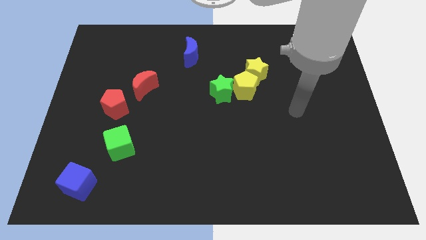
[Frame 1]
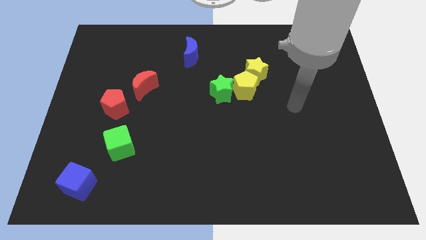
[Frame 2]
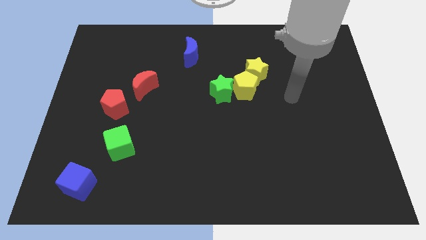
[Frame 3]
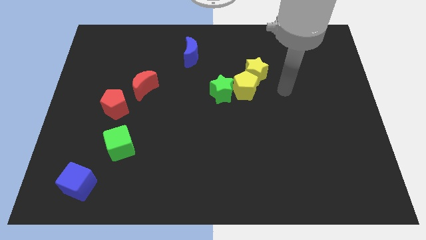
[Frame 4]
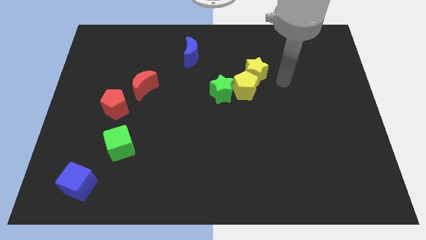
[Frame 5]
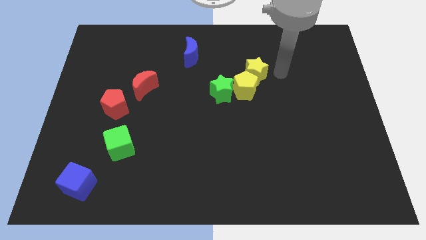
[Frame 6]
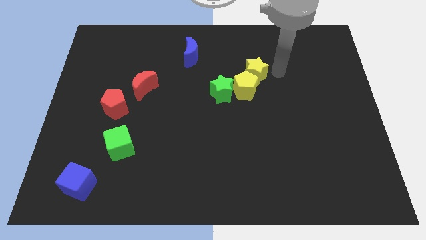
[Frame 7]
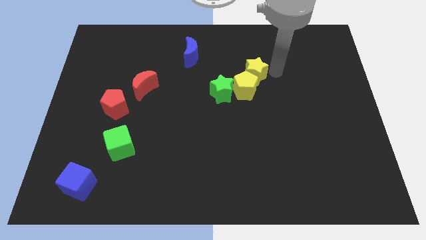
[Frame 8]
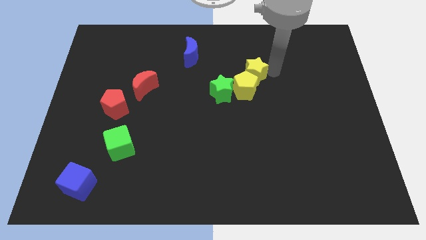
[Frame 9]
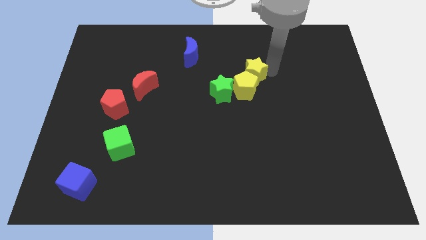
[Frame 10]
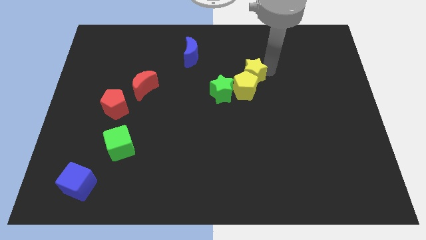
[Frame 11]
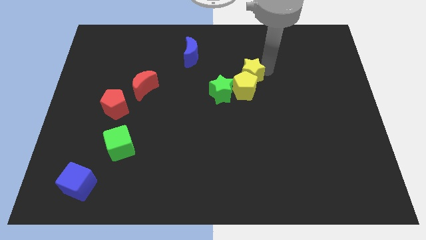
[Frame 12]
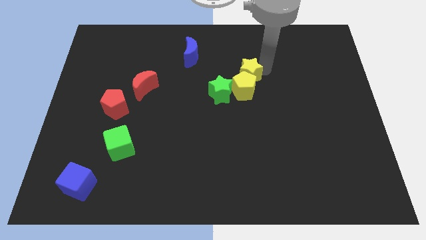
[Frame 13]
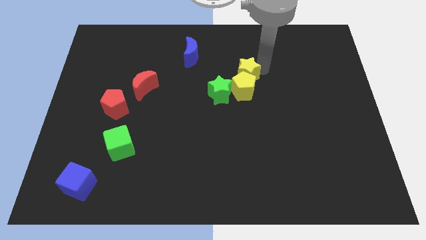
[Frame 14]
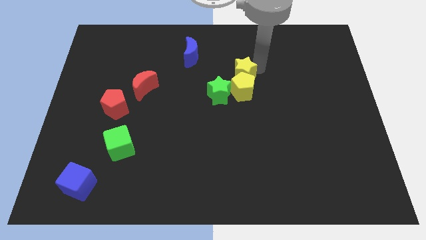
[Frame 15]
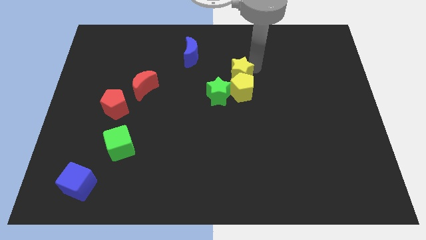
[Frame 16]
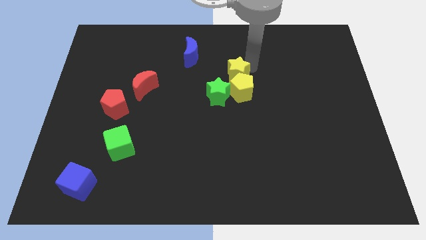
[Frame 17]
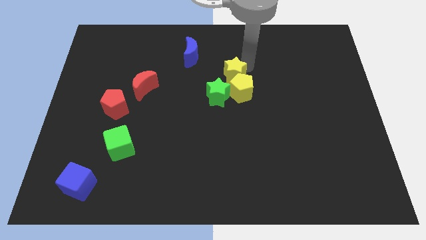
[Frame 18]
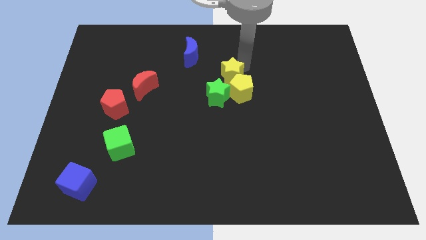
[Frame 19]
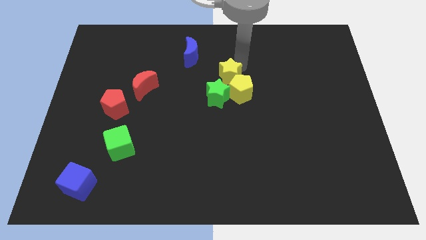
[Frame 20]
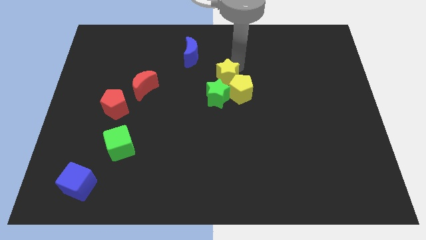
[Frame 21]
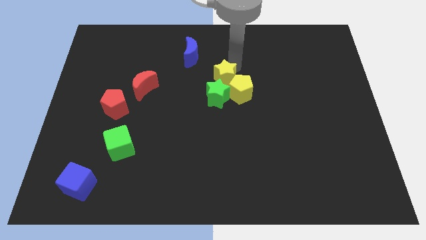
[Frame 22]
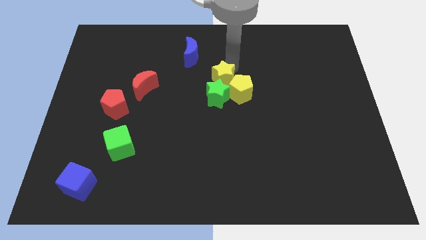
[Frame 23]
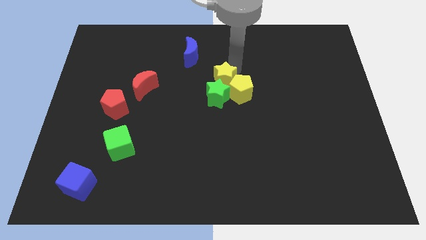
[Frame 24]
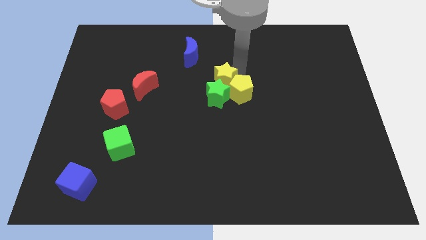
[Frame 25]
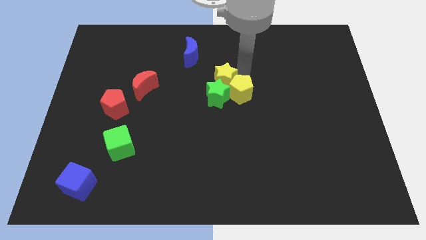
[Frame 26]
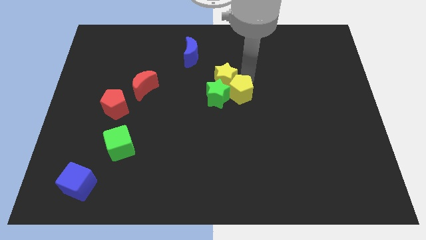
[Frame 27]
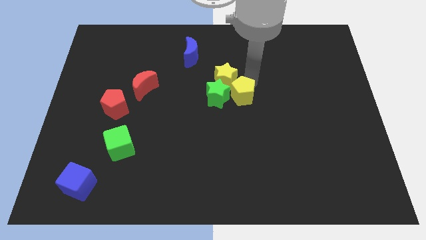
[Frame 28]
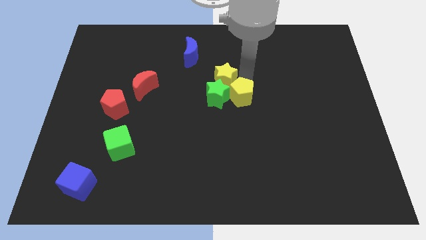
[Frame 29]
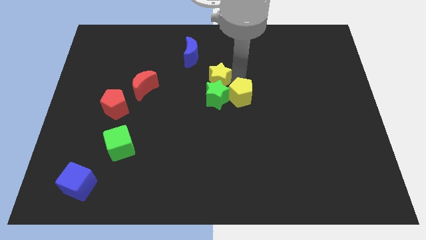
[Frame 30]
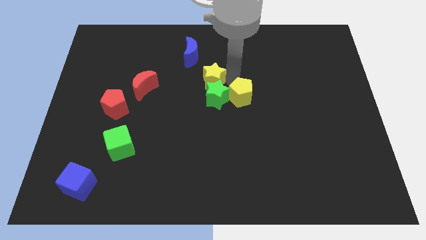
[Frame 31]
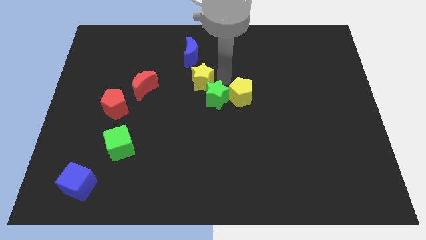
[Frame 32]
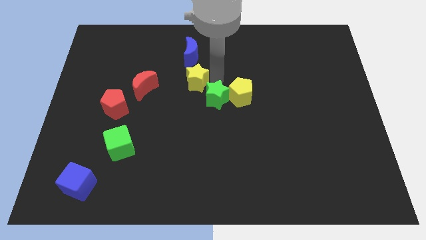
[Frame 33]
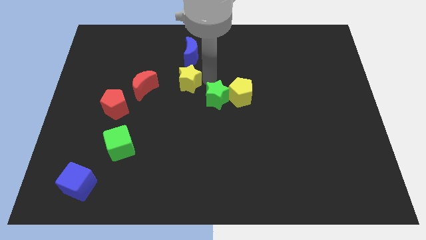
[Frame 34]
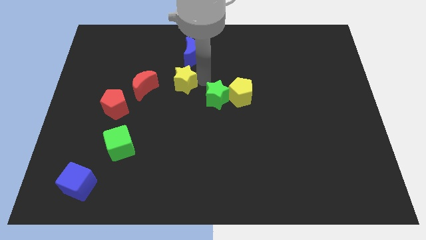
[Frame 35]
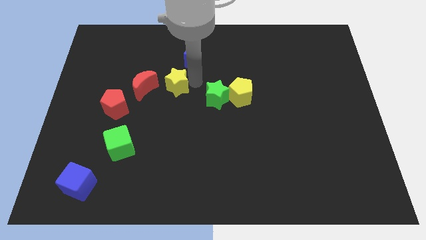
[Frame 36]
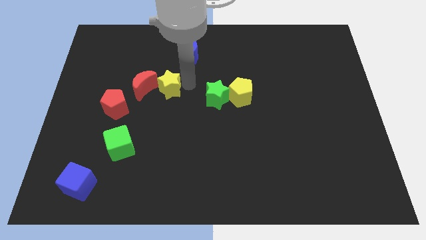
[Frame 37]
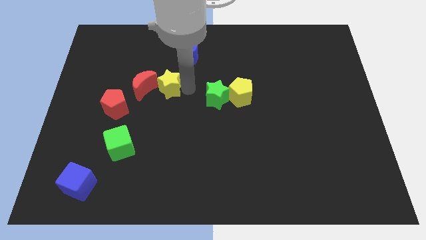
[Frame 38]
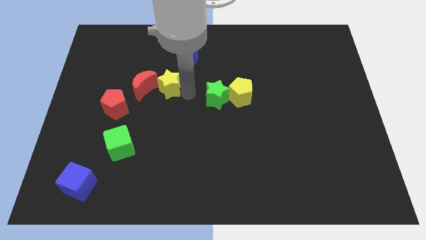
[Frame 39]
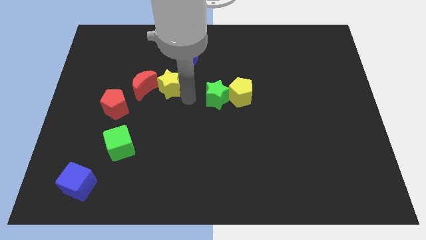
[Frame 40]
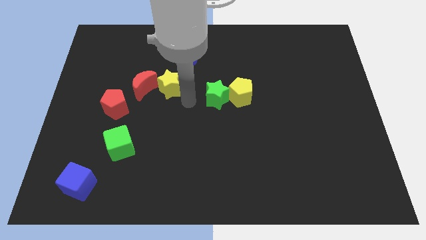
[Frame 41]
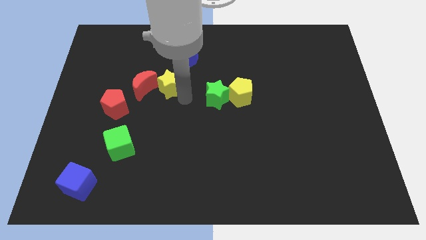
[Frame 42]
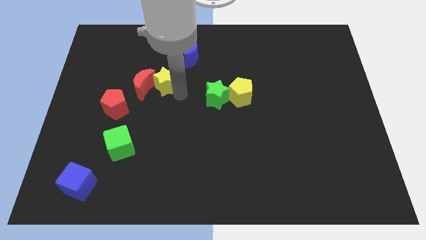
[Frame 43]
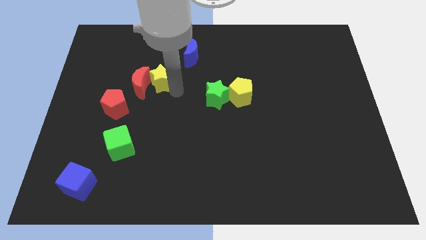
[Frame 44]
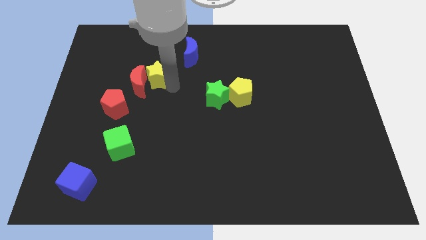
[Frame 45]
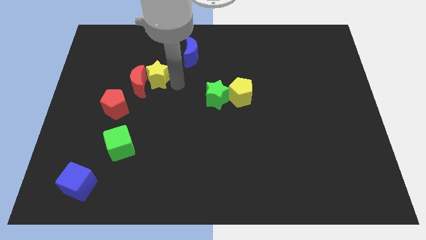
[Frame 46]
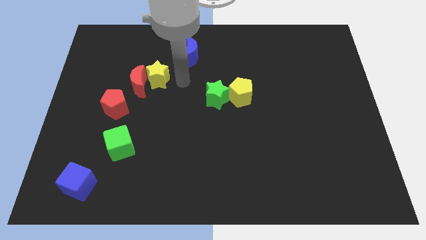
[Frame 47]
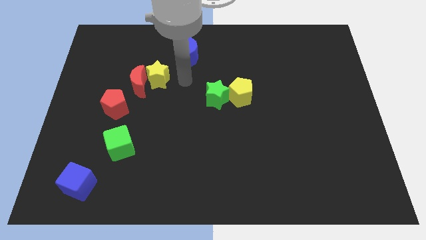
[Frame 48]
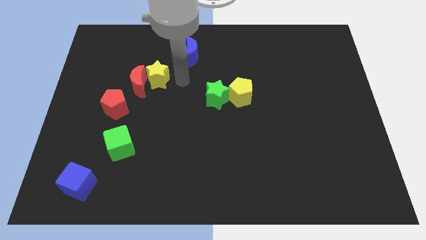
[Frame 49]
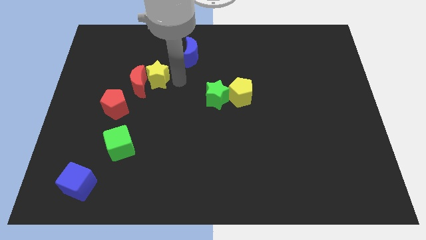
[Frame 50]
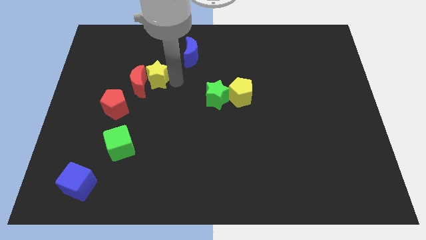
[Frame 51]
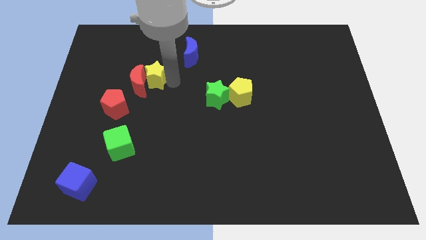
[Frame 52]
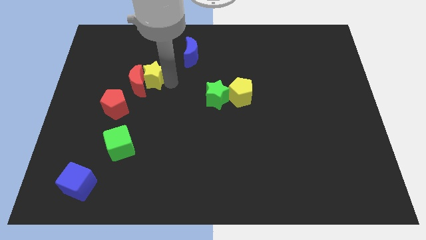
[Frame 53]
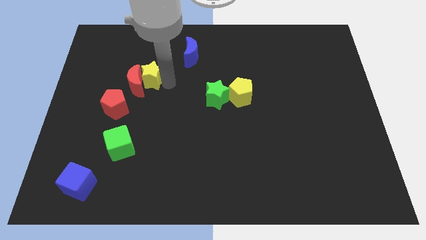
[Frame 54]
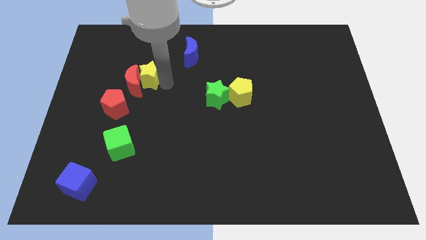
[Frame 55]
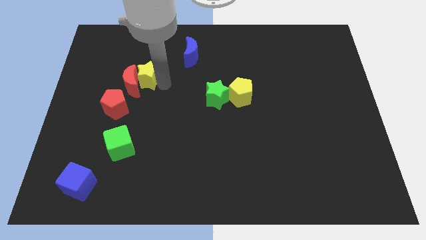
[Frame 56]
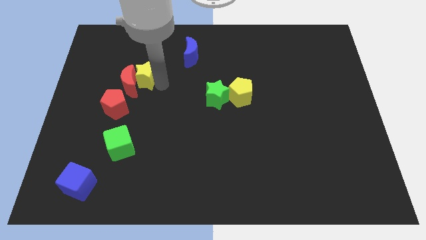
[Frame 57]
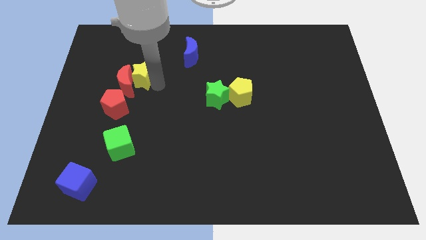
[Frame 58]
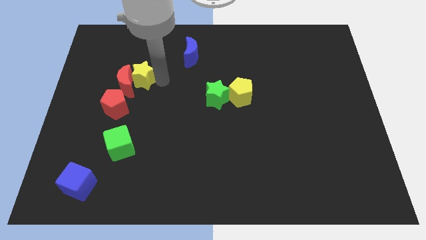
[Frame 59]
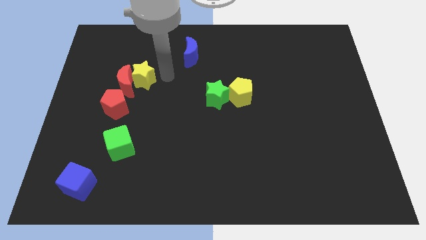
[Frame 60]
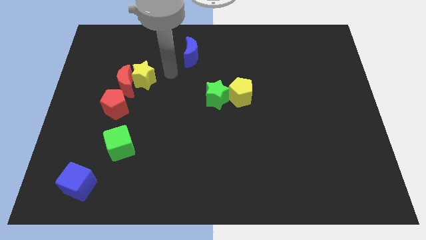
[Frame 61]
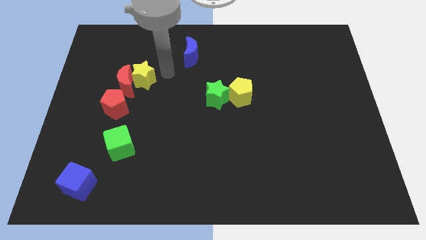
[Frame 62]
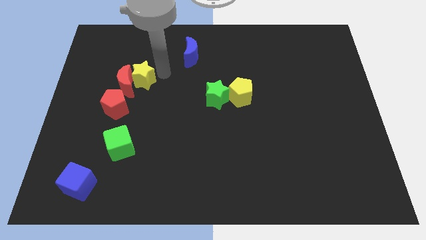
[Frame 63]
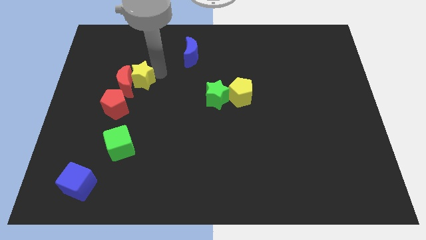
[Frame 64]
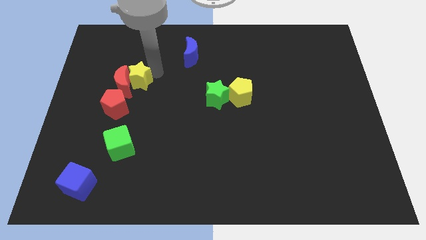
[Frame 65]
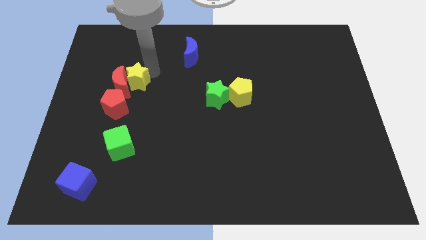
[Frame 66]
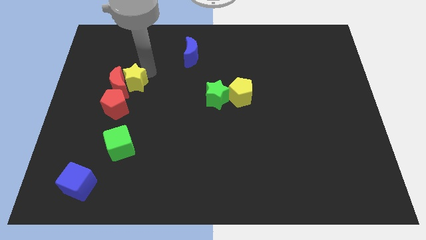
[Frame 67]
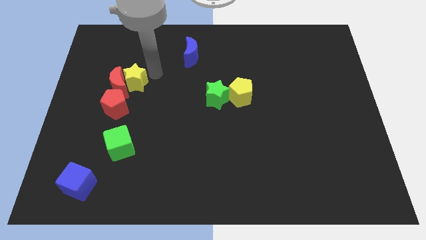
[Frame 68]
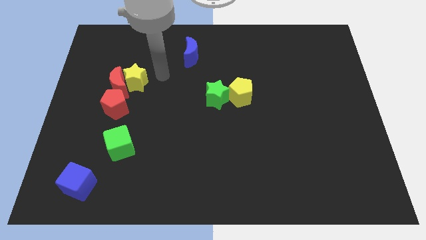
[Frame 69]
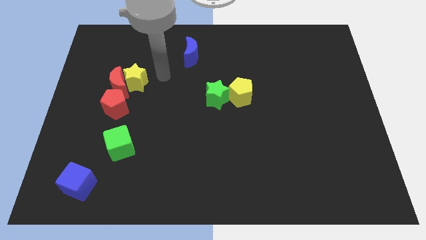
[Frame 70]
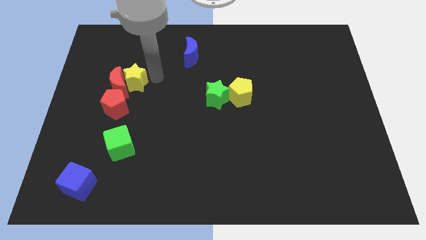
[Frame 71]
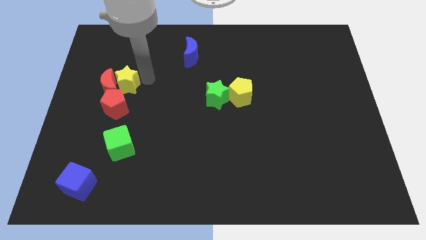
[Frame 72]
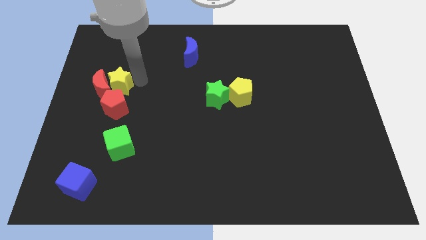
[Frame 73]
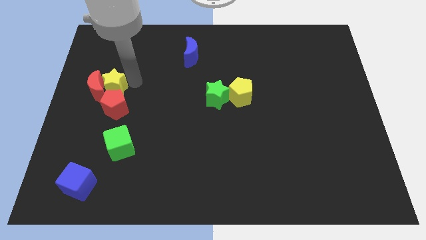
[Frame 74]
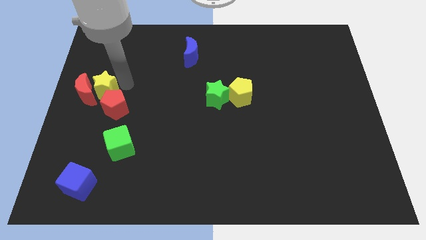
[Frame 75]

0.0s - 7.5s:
push the yellow star to the left side

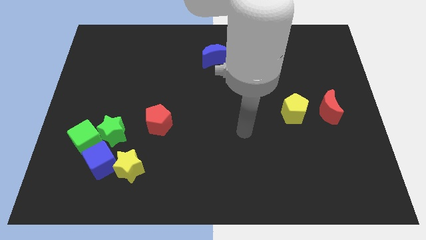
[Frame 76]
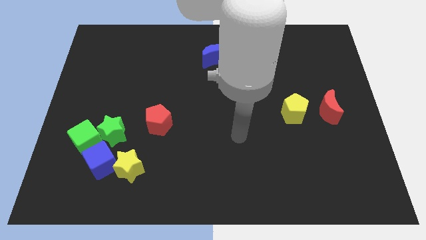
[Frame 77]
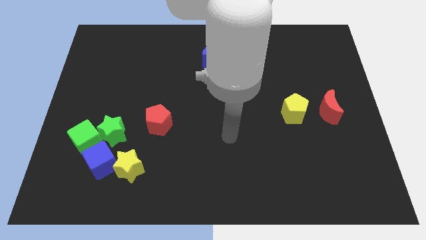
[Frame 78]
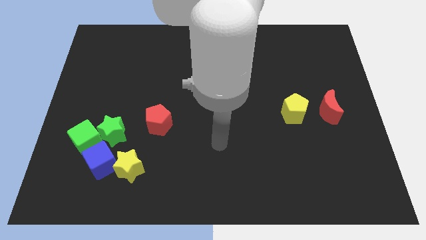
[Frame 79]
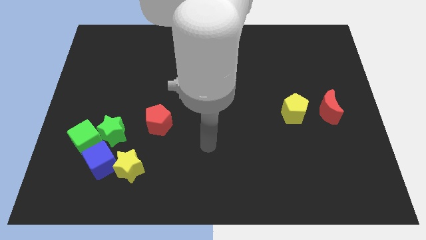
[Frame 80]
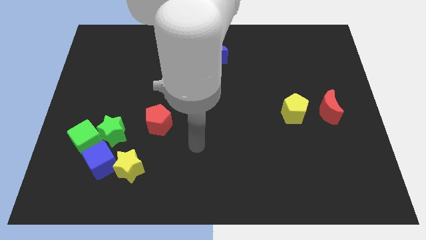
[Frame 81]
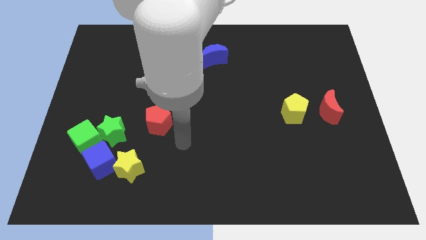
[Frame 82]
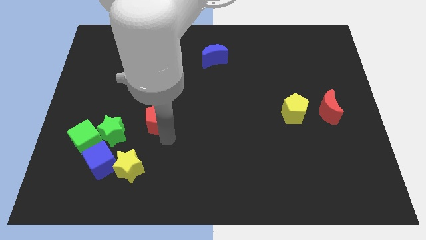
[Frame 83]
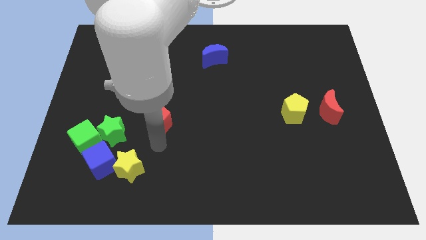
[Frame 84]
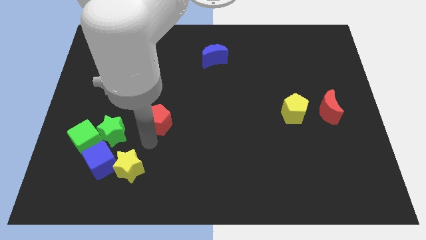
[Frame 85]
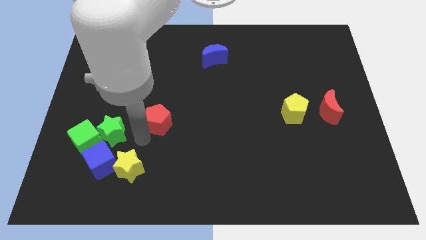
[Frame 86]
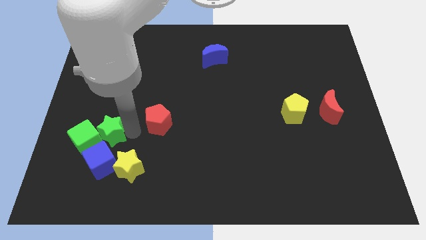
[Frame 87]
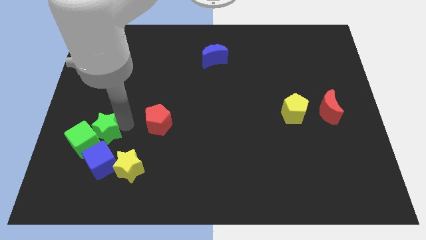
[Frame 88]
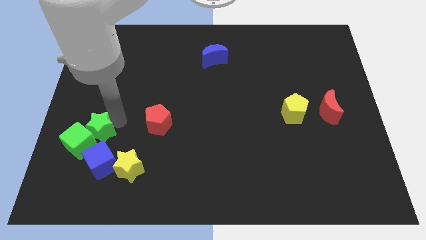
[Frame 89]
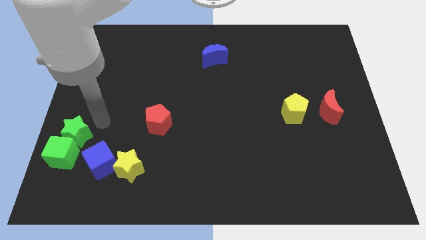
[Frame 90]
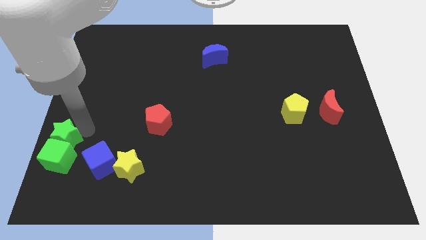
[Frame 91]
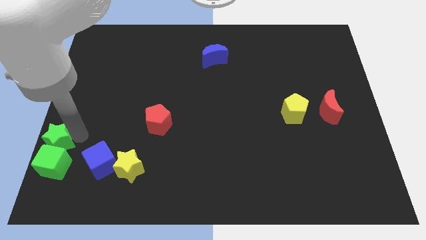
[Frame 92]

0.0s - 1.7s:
push the green cube to the bottom left
